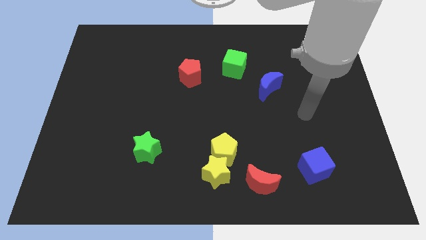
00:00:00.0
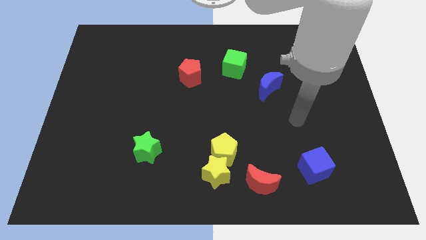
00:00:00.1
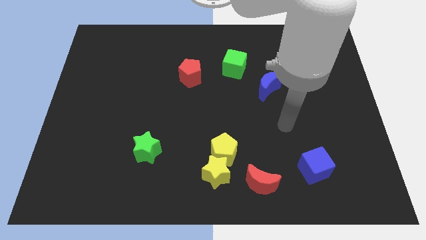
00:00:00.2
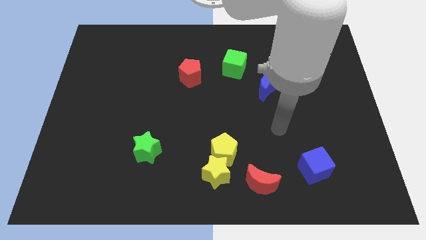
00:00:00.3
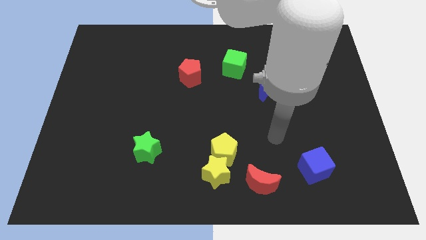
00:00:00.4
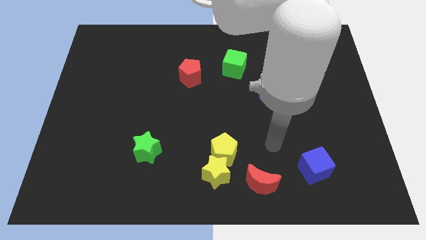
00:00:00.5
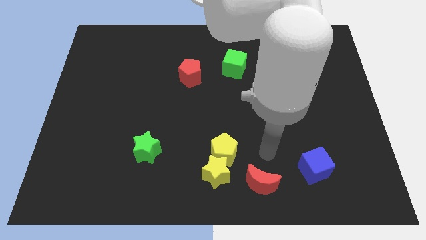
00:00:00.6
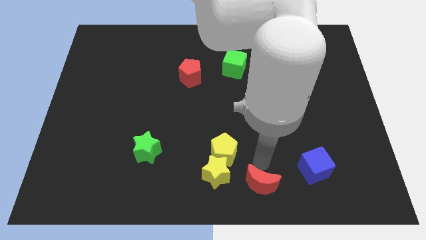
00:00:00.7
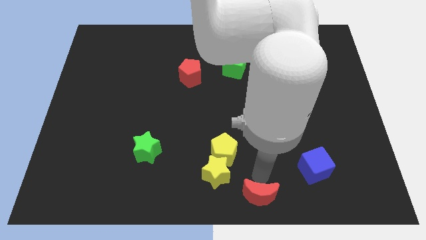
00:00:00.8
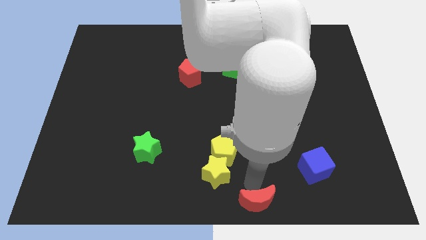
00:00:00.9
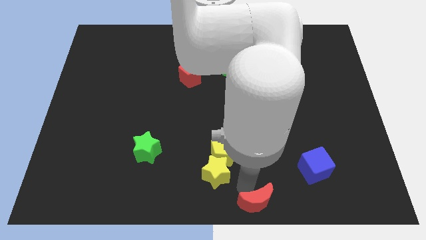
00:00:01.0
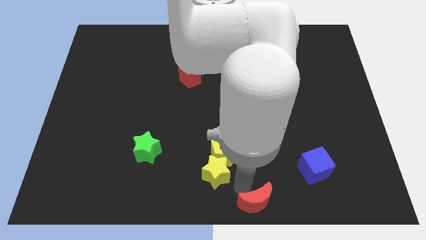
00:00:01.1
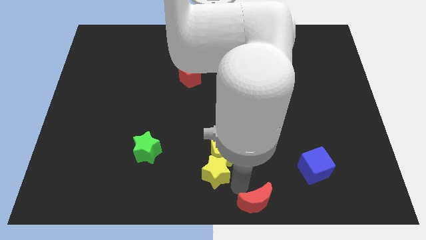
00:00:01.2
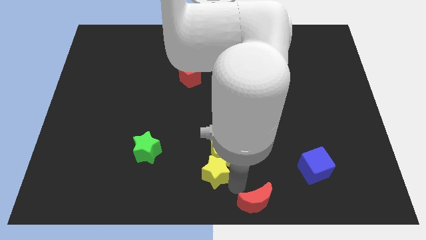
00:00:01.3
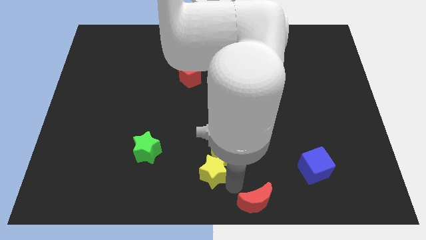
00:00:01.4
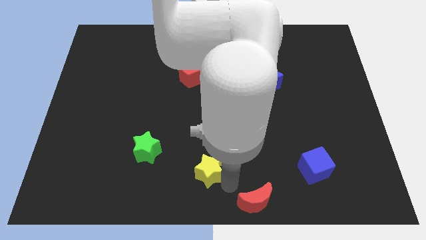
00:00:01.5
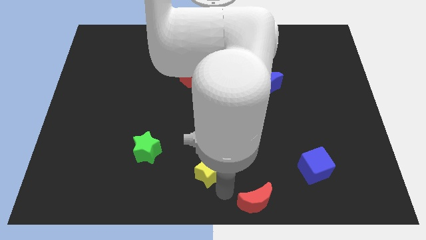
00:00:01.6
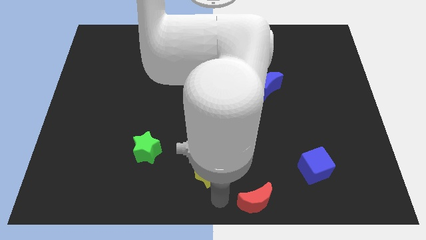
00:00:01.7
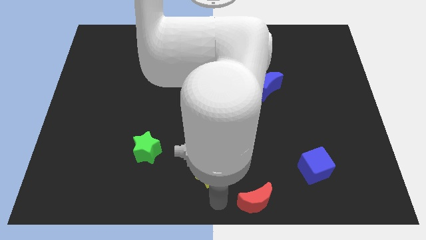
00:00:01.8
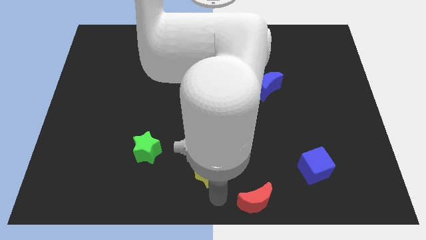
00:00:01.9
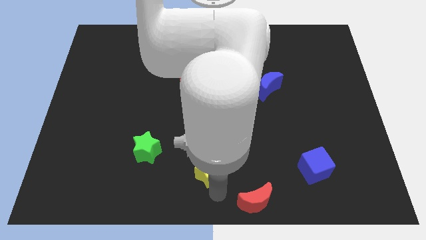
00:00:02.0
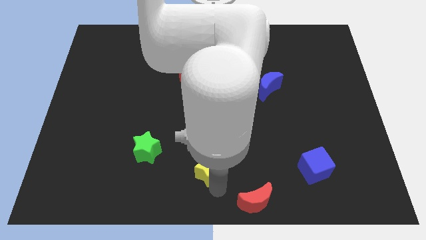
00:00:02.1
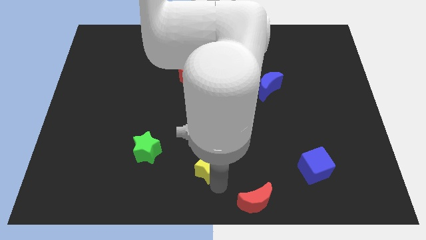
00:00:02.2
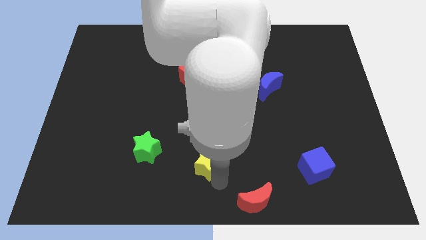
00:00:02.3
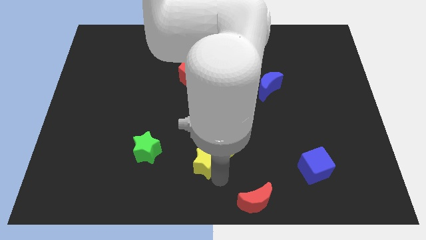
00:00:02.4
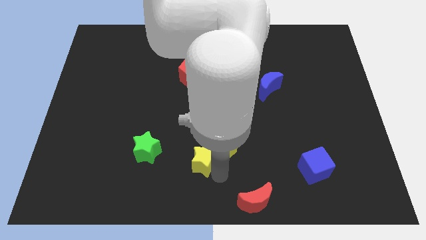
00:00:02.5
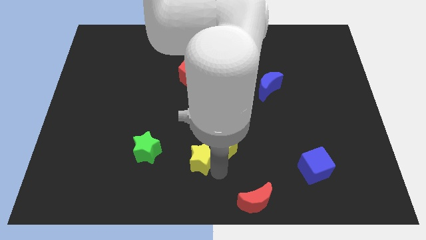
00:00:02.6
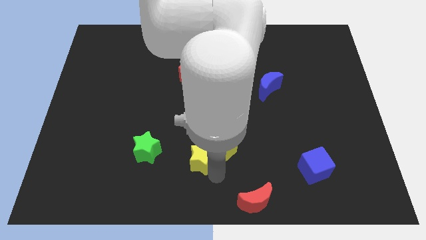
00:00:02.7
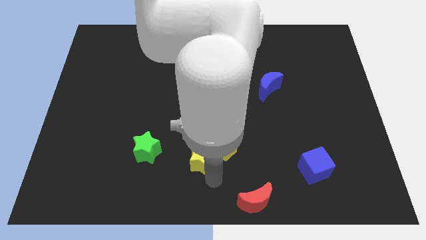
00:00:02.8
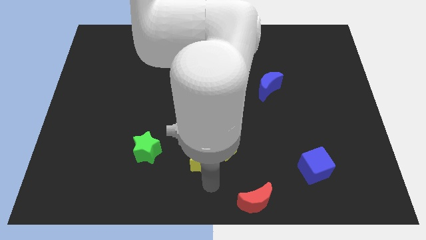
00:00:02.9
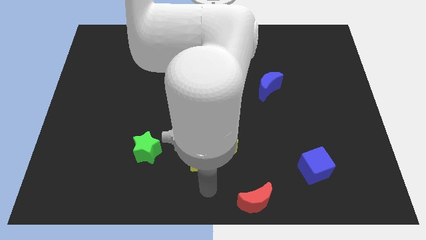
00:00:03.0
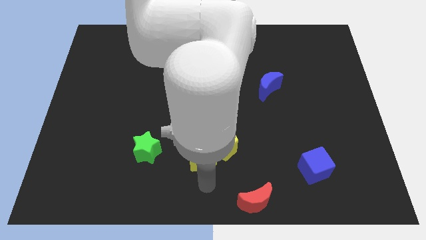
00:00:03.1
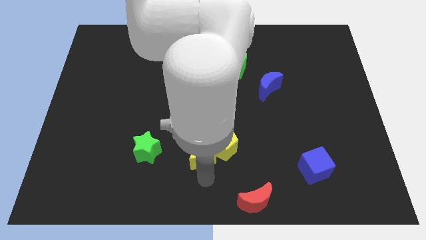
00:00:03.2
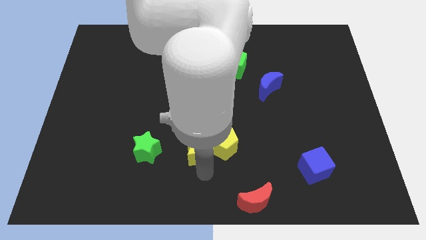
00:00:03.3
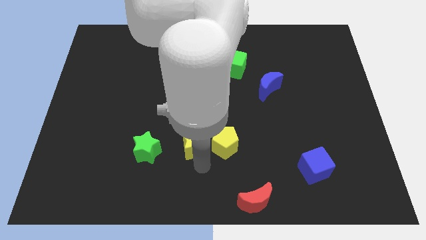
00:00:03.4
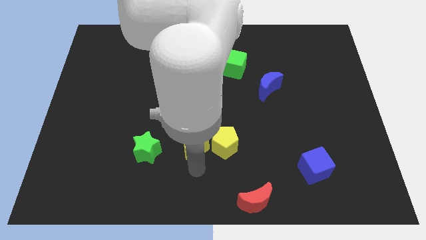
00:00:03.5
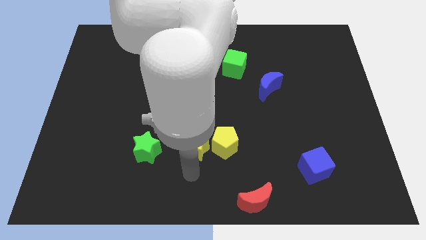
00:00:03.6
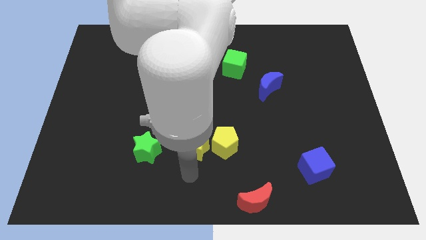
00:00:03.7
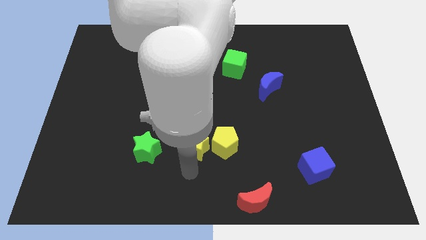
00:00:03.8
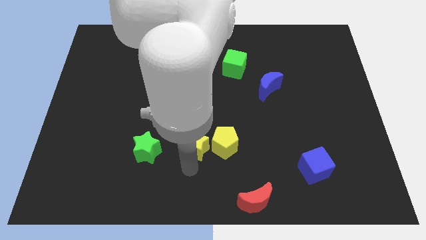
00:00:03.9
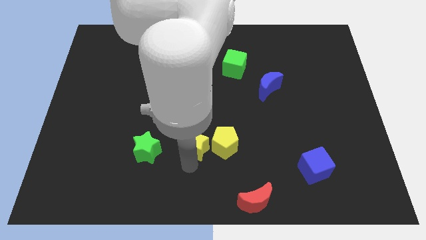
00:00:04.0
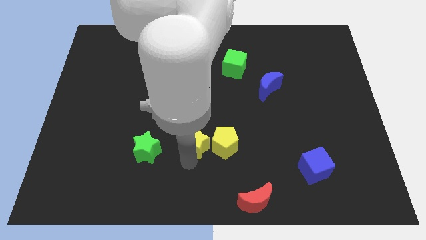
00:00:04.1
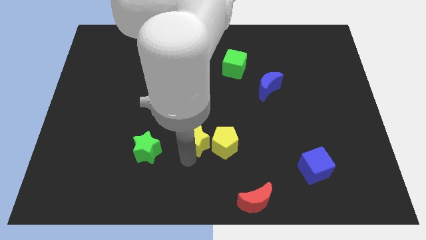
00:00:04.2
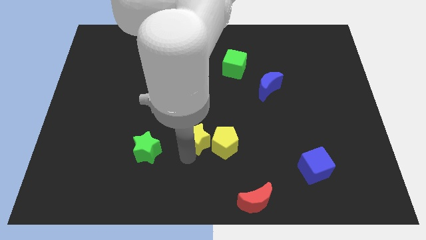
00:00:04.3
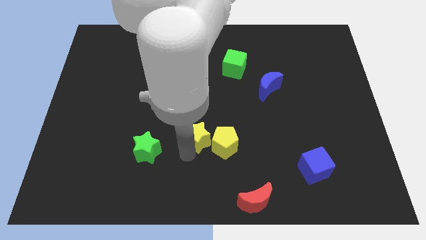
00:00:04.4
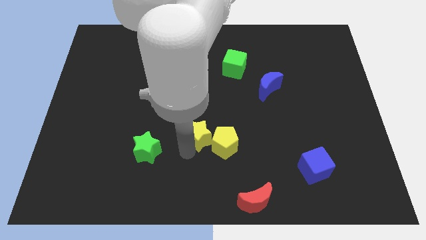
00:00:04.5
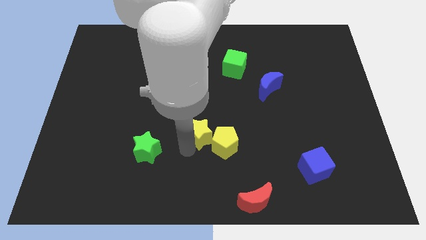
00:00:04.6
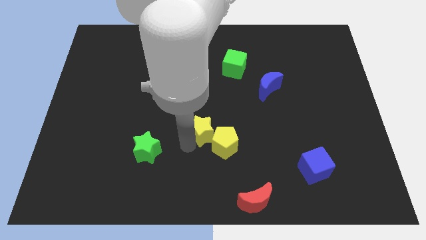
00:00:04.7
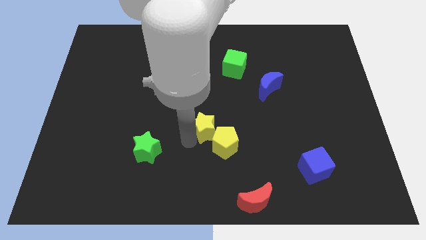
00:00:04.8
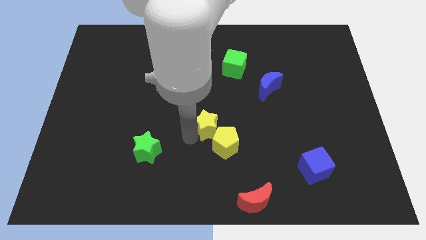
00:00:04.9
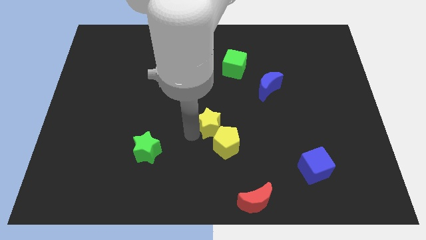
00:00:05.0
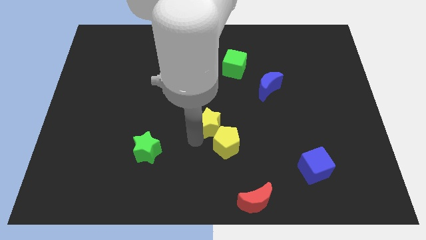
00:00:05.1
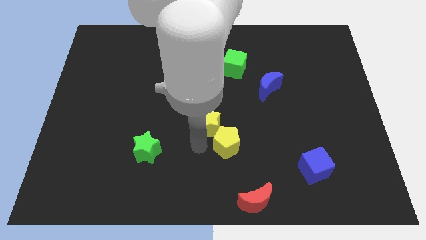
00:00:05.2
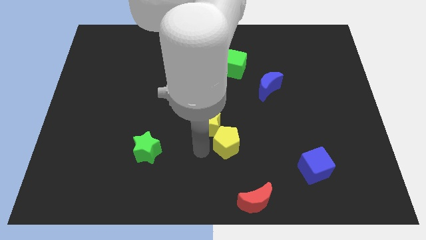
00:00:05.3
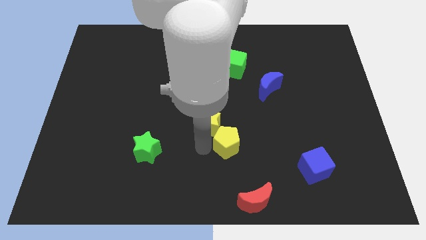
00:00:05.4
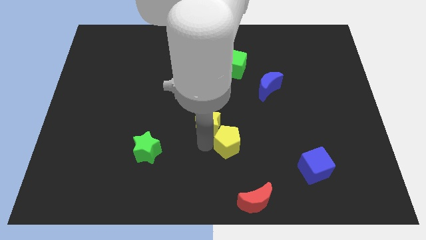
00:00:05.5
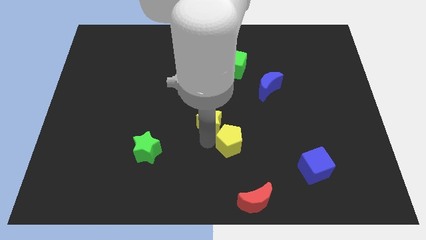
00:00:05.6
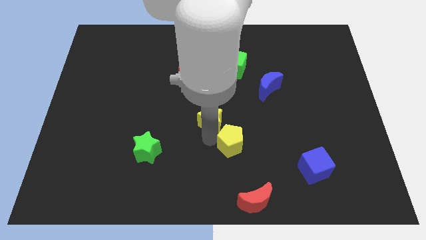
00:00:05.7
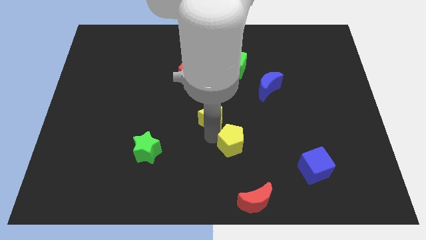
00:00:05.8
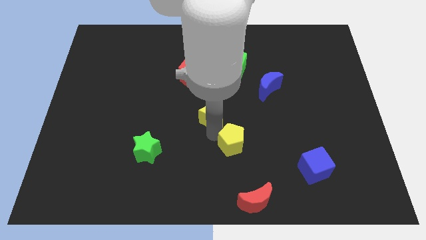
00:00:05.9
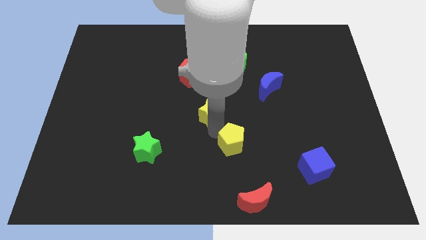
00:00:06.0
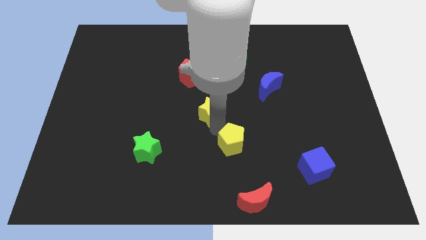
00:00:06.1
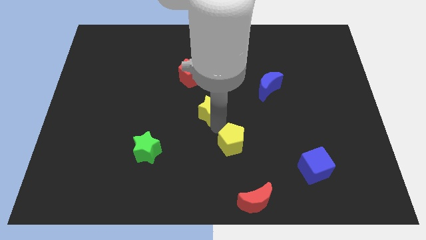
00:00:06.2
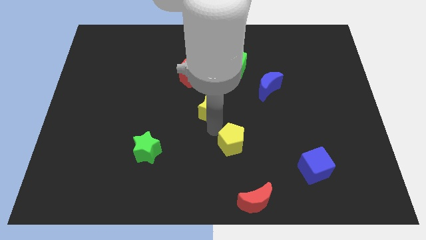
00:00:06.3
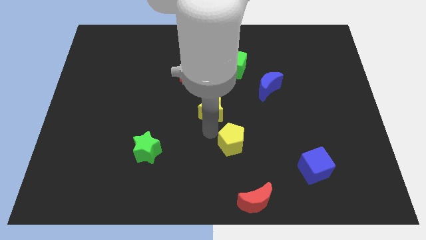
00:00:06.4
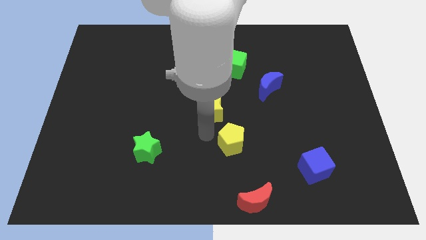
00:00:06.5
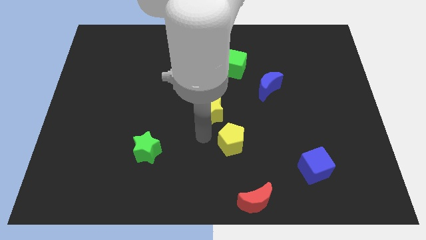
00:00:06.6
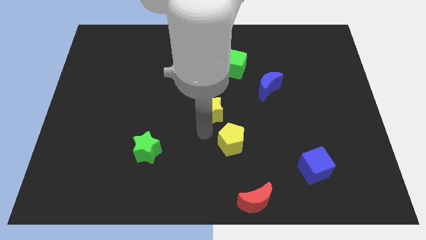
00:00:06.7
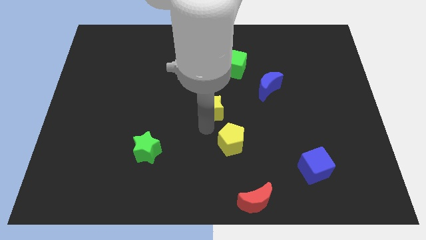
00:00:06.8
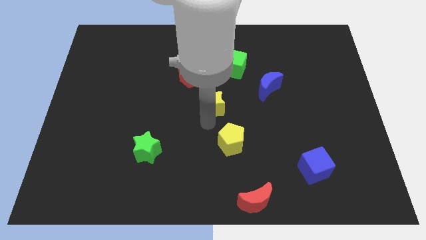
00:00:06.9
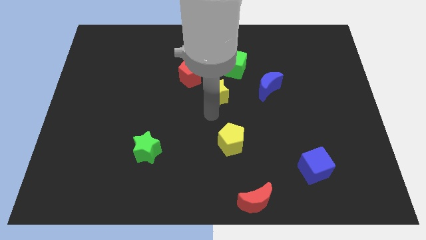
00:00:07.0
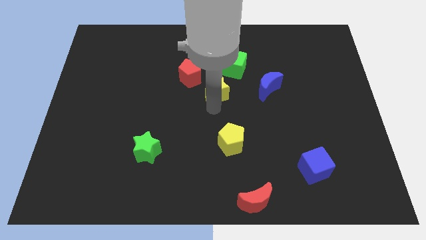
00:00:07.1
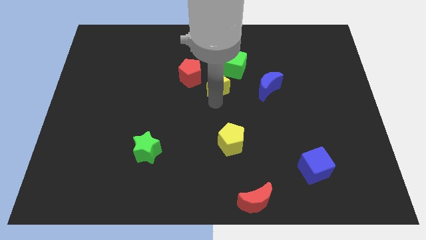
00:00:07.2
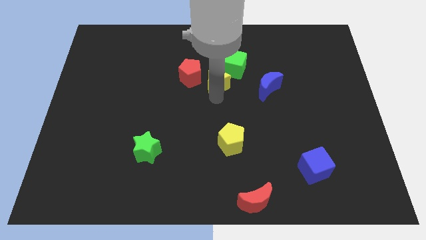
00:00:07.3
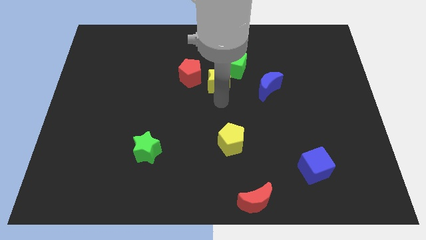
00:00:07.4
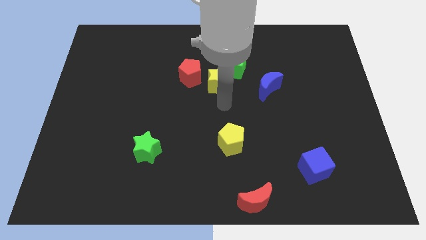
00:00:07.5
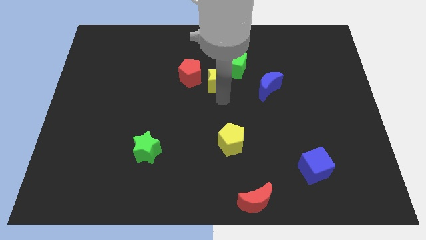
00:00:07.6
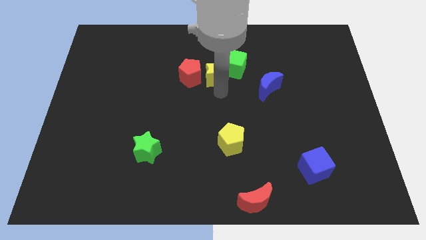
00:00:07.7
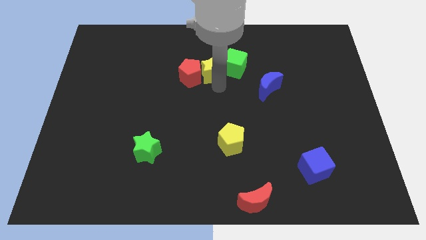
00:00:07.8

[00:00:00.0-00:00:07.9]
slide the yellow star diagonally up and to the right of the red pentagon
